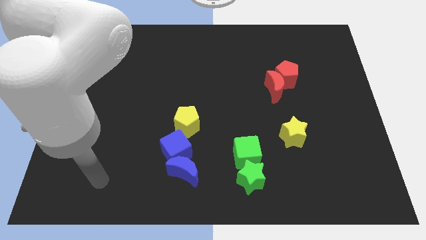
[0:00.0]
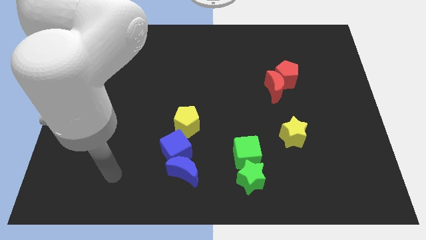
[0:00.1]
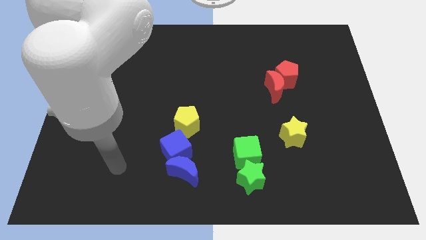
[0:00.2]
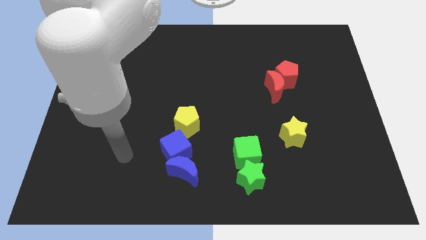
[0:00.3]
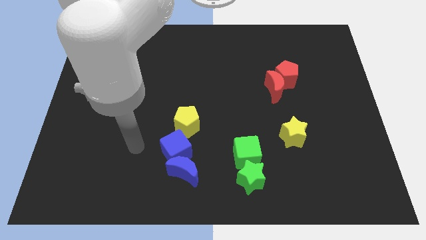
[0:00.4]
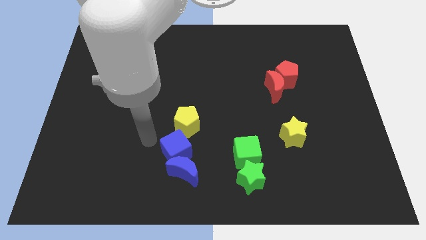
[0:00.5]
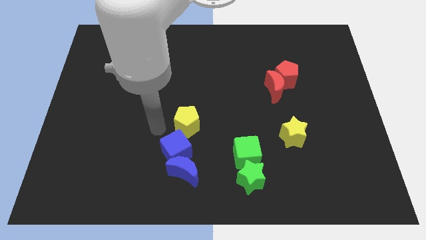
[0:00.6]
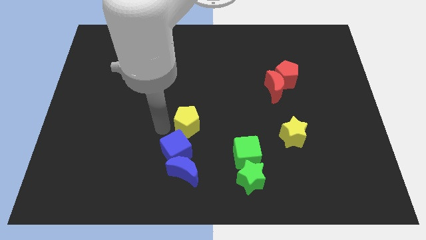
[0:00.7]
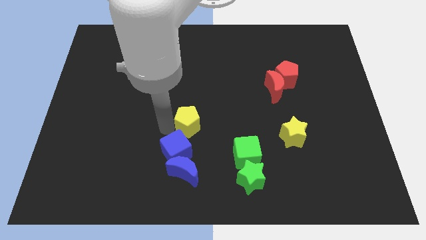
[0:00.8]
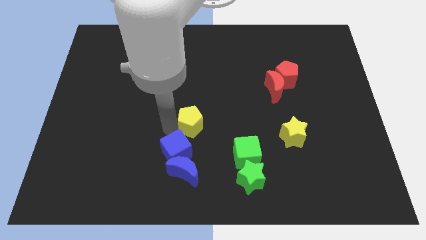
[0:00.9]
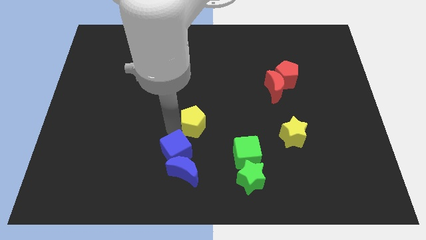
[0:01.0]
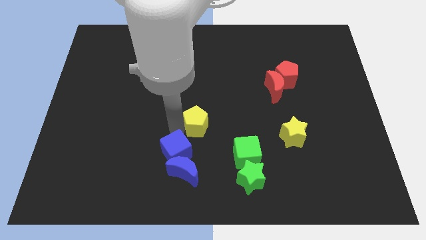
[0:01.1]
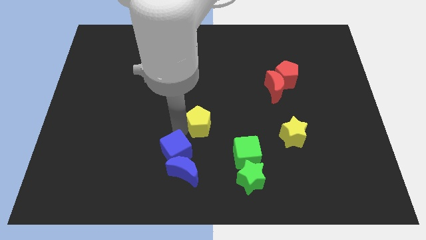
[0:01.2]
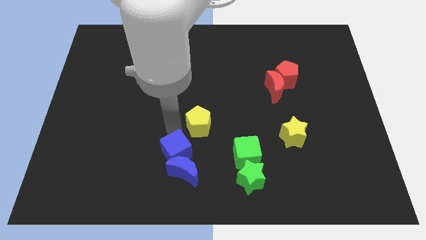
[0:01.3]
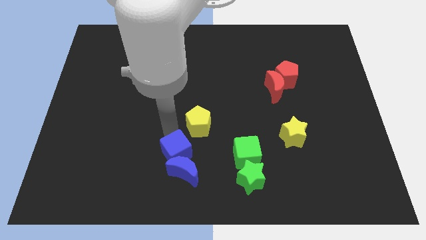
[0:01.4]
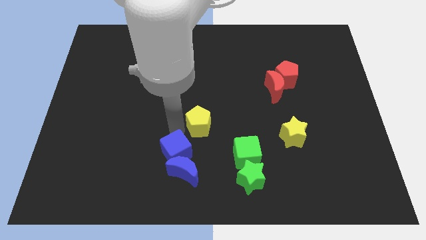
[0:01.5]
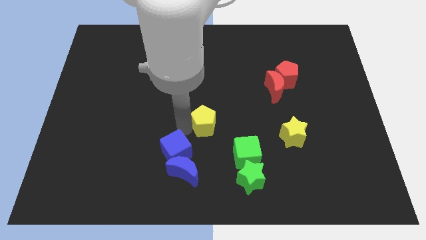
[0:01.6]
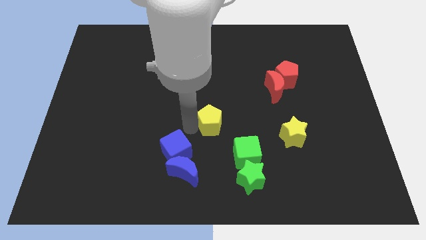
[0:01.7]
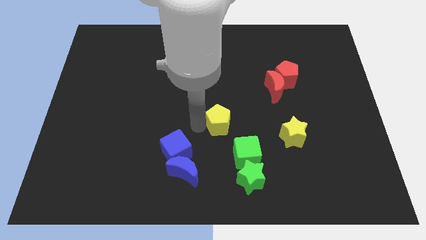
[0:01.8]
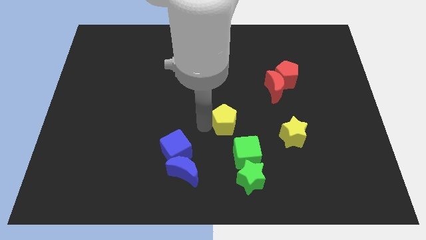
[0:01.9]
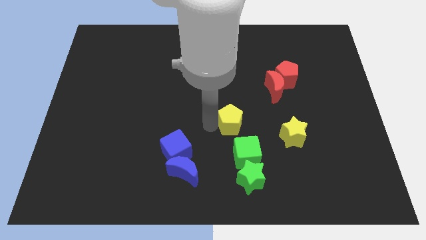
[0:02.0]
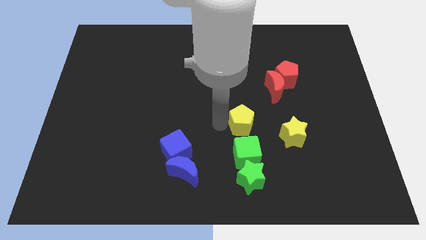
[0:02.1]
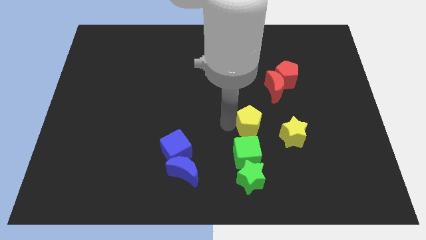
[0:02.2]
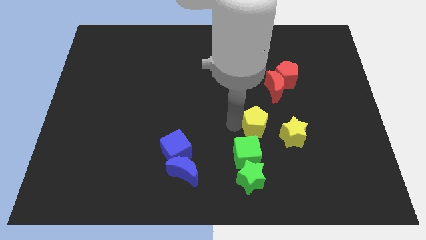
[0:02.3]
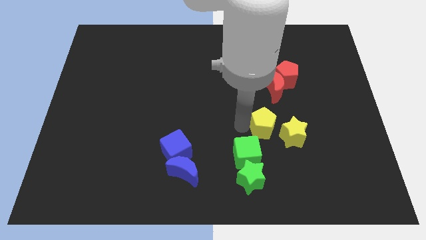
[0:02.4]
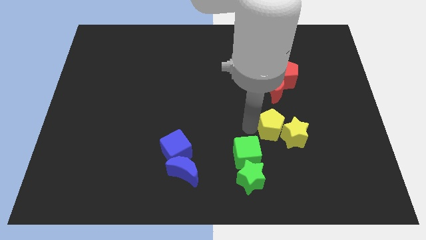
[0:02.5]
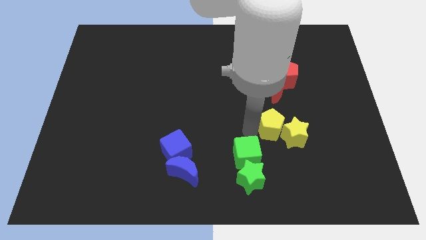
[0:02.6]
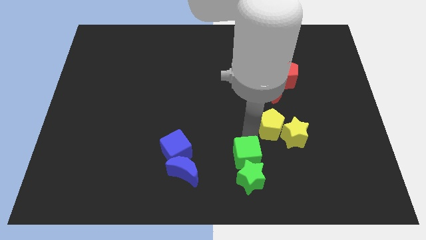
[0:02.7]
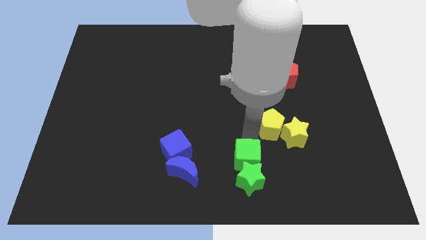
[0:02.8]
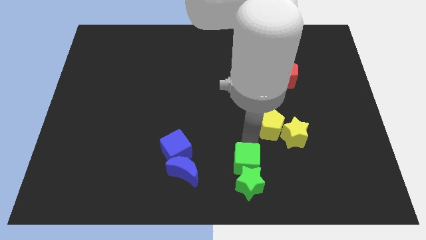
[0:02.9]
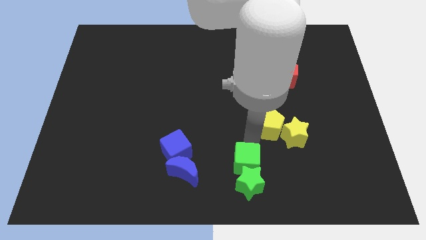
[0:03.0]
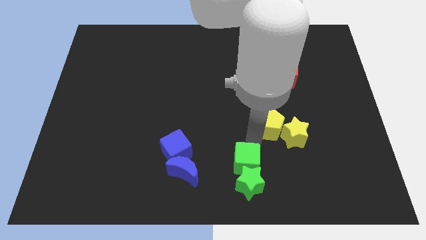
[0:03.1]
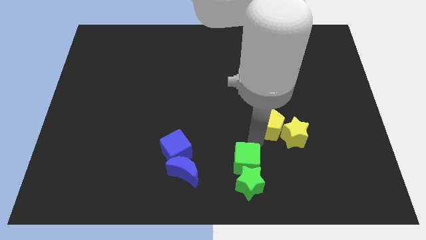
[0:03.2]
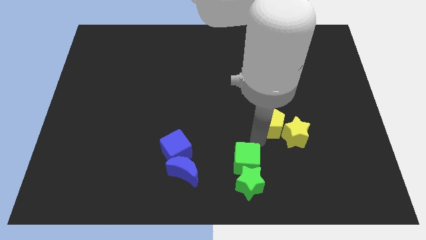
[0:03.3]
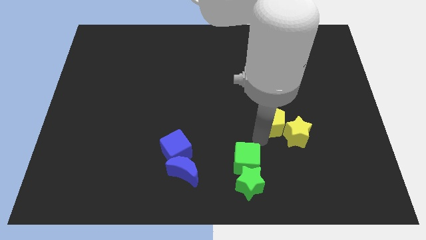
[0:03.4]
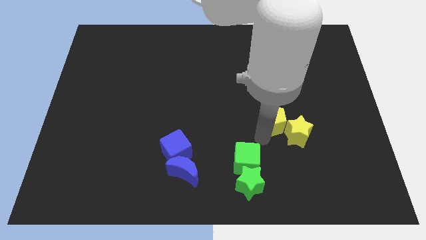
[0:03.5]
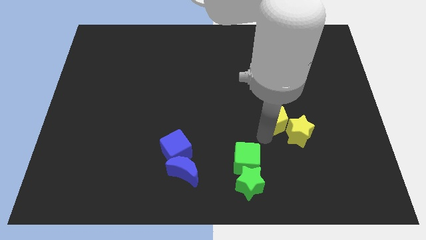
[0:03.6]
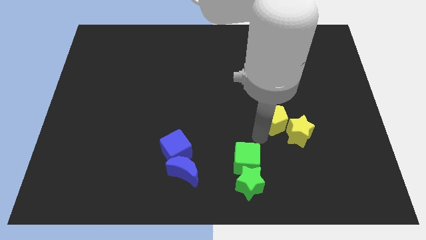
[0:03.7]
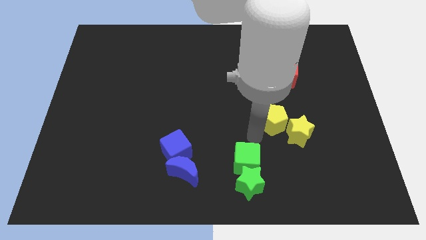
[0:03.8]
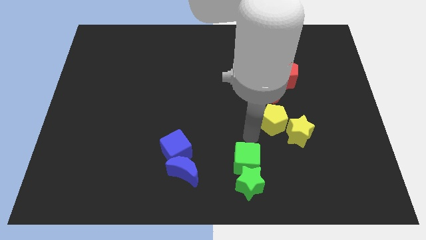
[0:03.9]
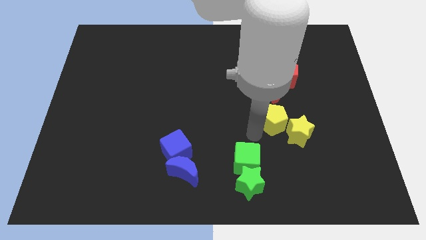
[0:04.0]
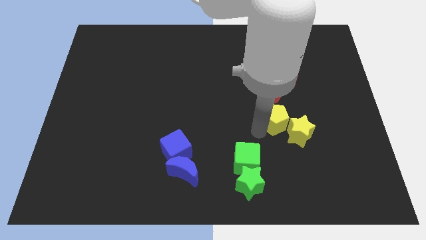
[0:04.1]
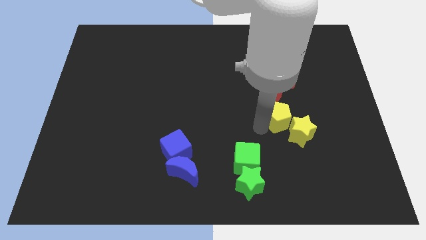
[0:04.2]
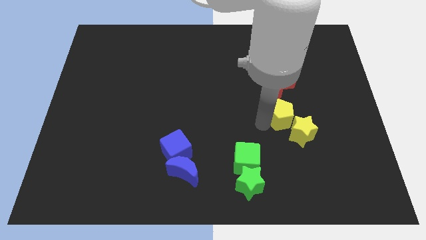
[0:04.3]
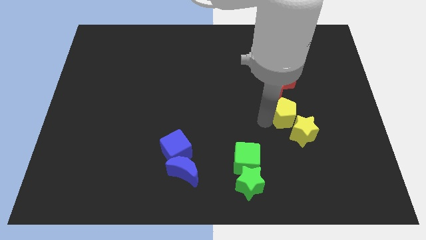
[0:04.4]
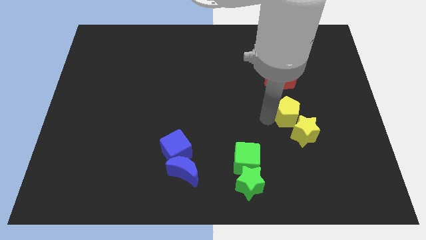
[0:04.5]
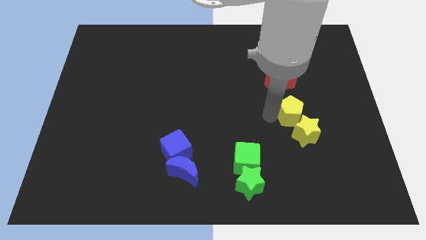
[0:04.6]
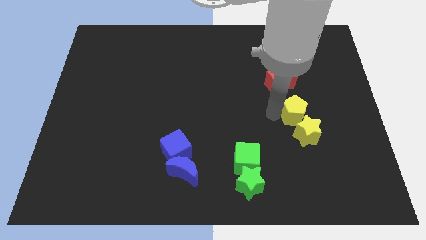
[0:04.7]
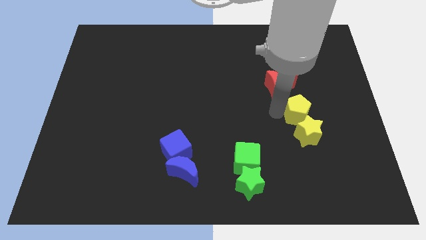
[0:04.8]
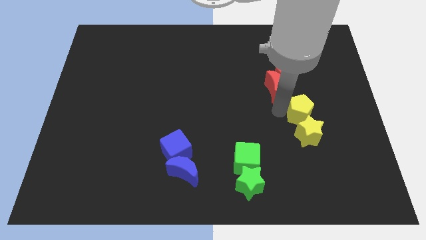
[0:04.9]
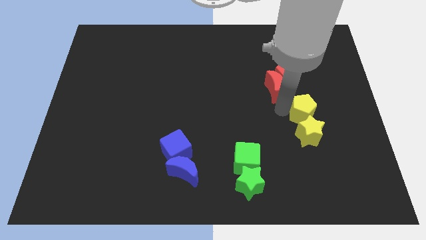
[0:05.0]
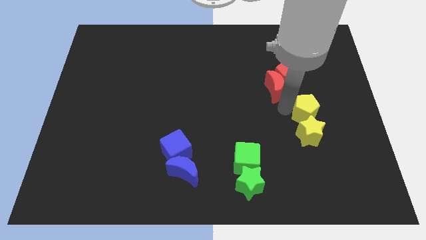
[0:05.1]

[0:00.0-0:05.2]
put the yellow pentagon diagonally up and to the right of the yellow star

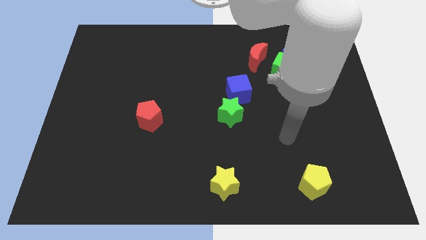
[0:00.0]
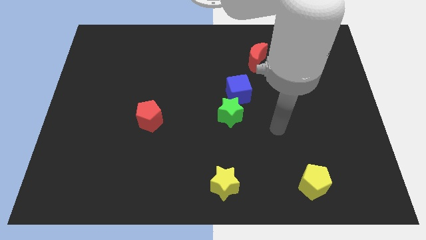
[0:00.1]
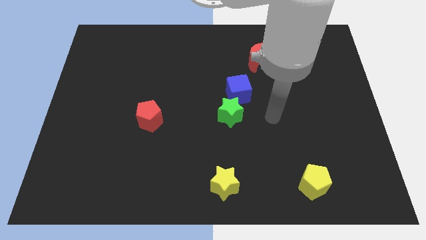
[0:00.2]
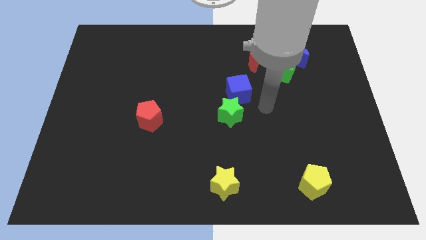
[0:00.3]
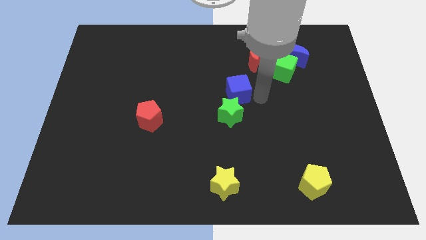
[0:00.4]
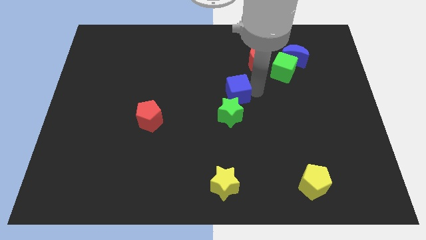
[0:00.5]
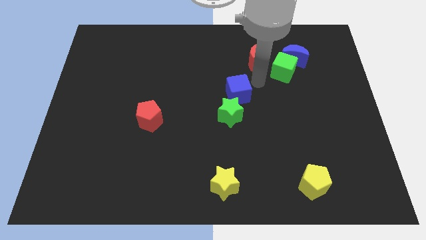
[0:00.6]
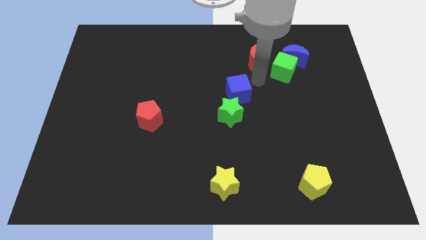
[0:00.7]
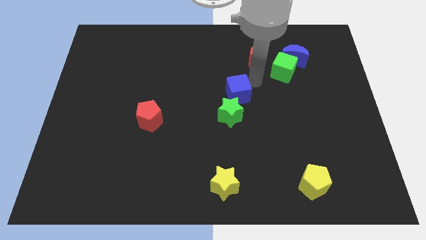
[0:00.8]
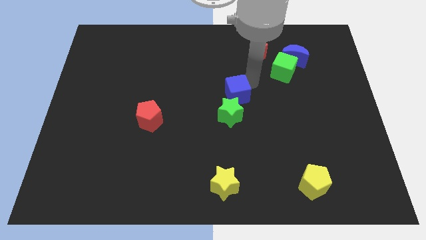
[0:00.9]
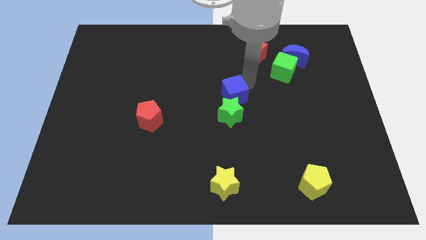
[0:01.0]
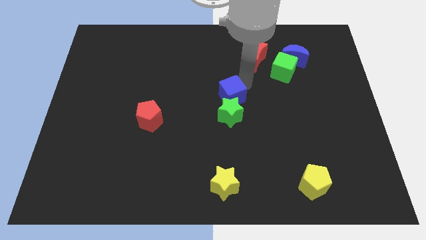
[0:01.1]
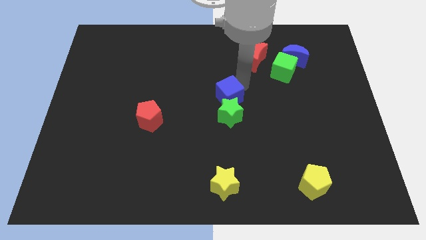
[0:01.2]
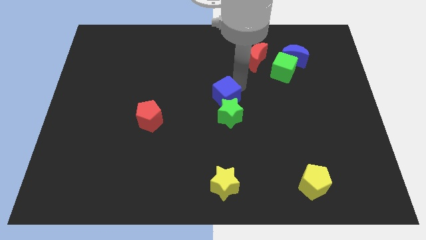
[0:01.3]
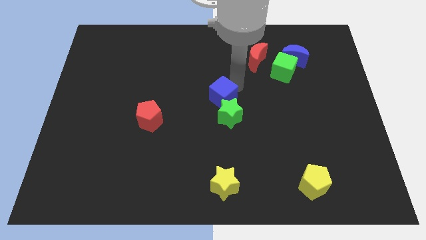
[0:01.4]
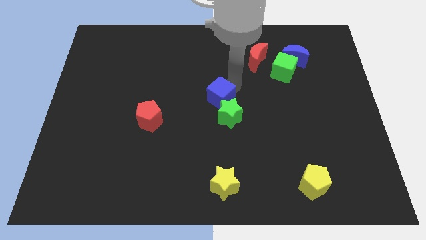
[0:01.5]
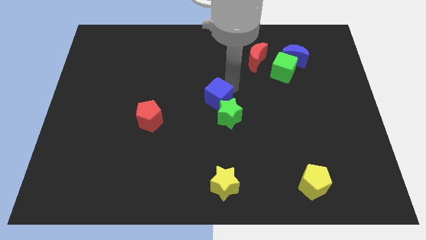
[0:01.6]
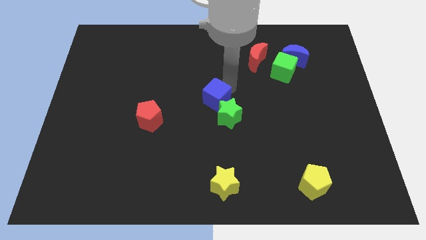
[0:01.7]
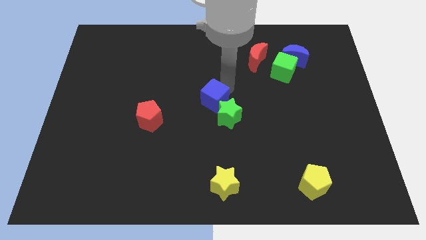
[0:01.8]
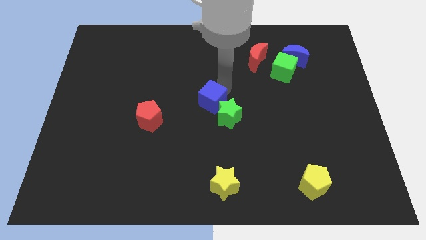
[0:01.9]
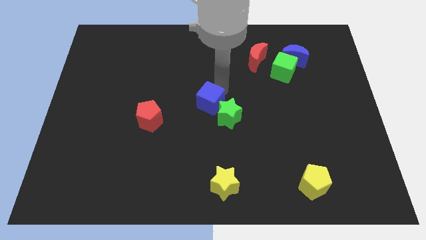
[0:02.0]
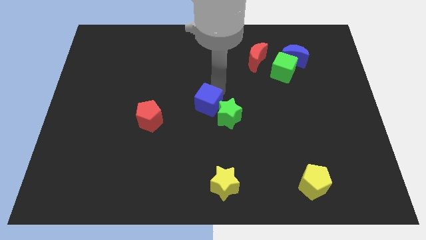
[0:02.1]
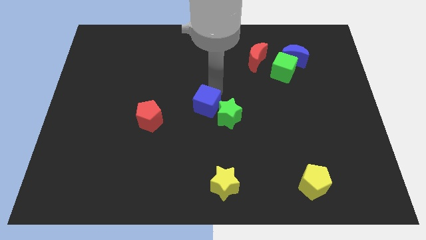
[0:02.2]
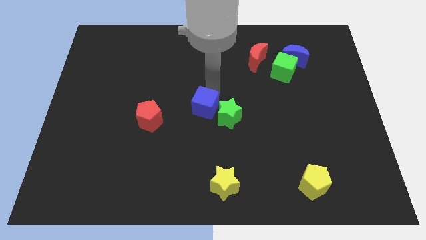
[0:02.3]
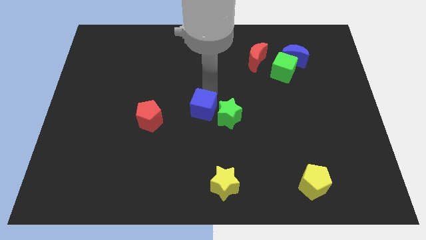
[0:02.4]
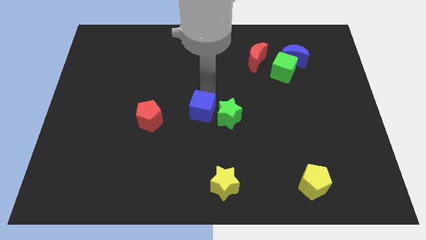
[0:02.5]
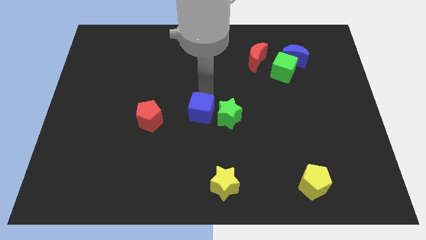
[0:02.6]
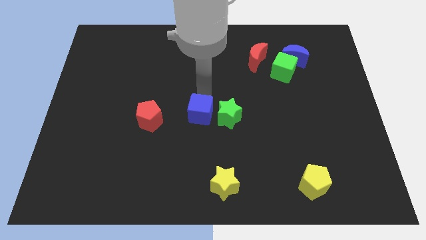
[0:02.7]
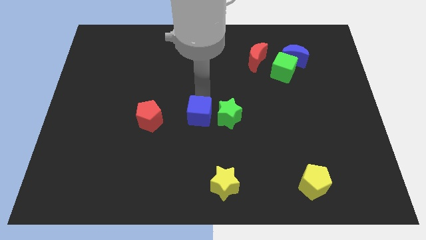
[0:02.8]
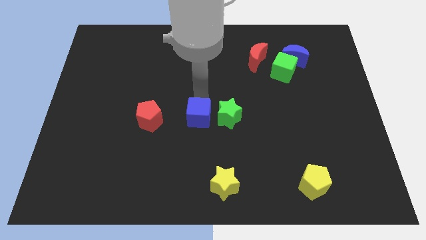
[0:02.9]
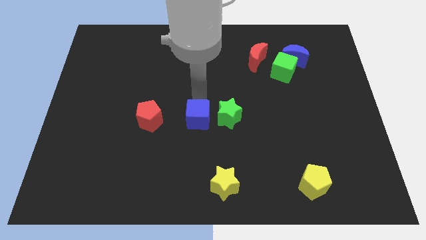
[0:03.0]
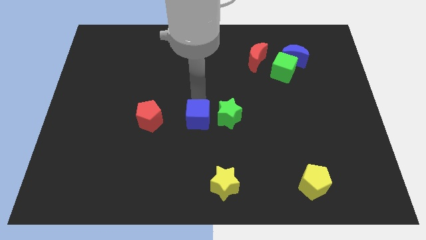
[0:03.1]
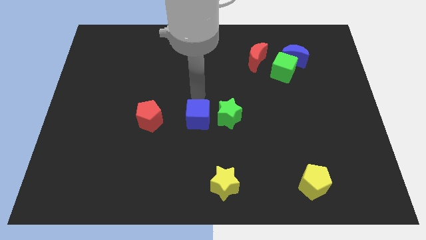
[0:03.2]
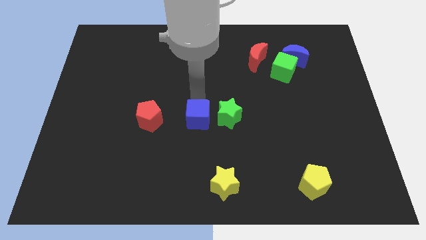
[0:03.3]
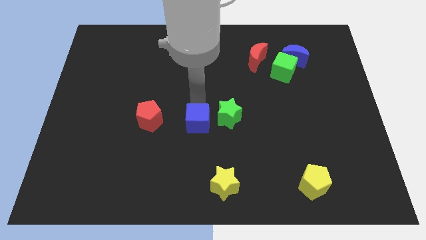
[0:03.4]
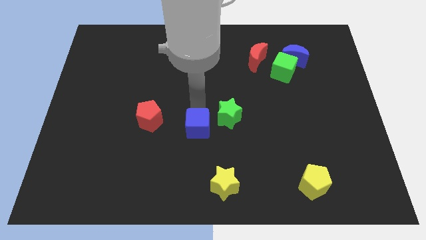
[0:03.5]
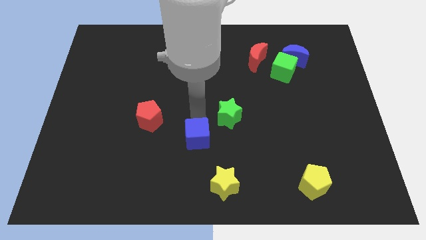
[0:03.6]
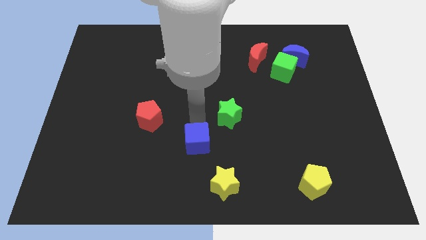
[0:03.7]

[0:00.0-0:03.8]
move the blue cube diagonally up and to the left of the yellow star
